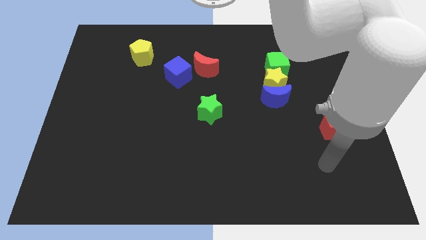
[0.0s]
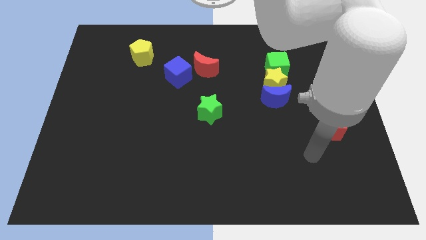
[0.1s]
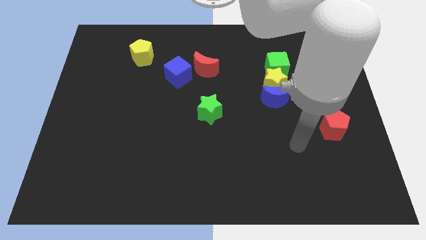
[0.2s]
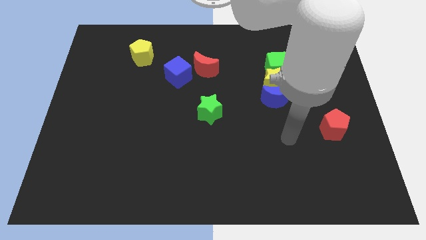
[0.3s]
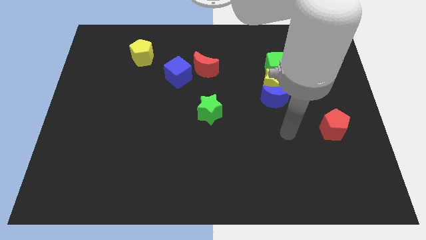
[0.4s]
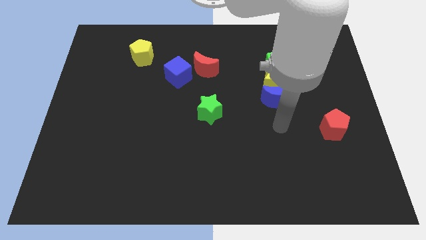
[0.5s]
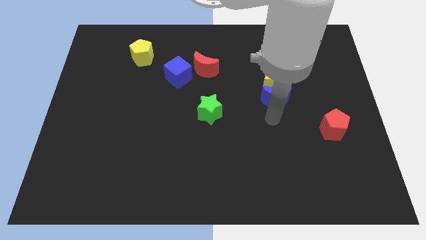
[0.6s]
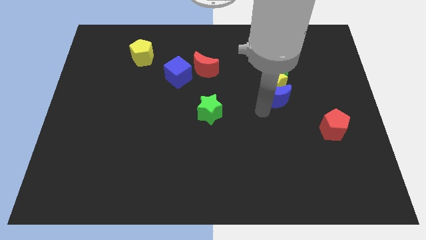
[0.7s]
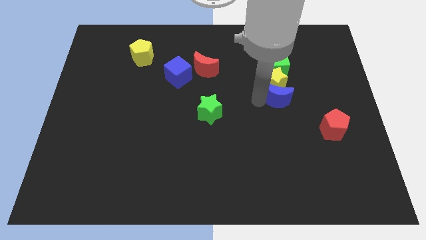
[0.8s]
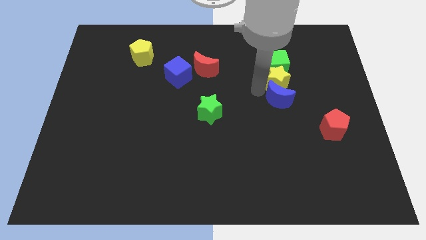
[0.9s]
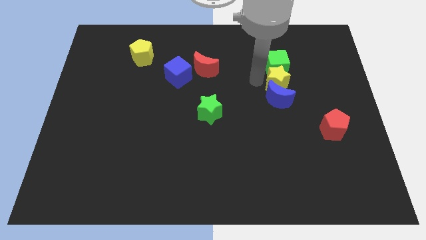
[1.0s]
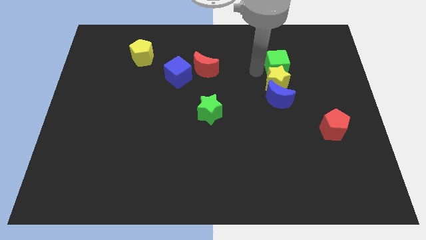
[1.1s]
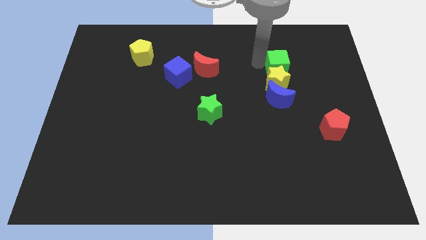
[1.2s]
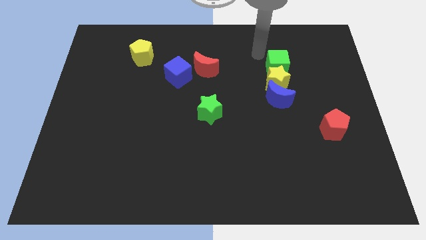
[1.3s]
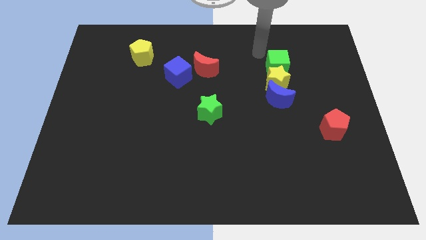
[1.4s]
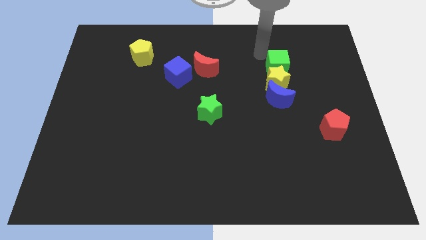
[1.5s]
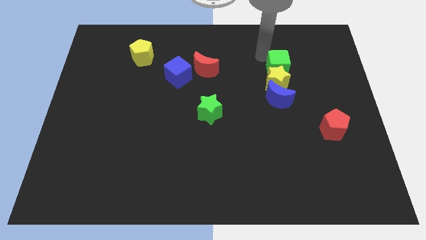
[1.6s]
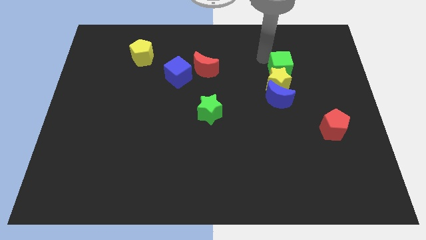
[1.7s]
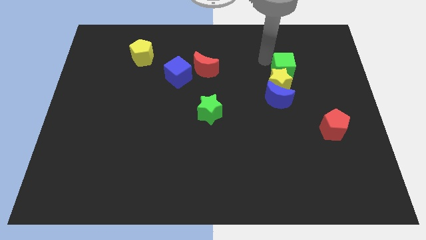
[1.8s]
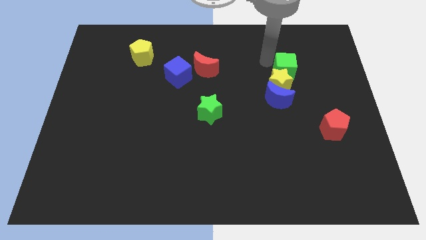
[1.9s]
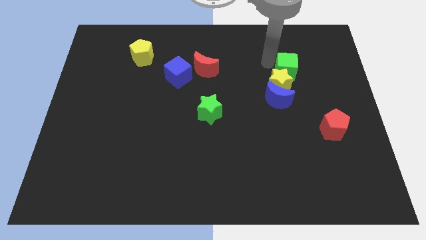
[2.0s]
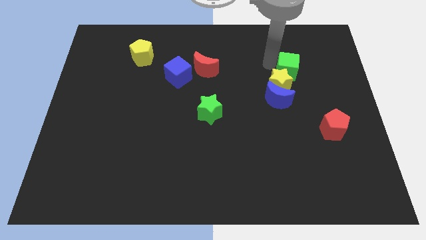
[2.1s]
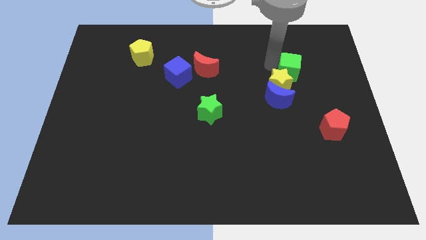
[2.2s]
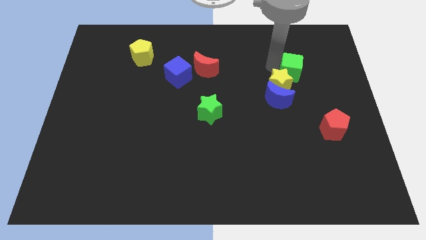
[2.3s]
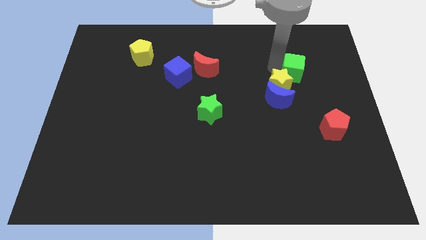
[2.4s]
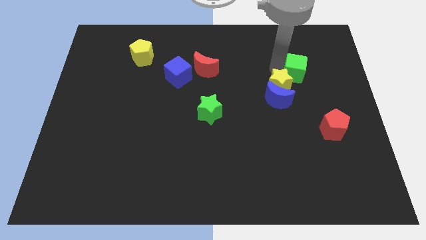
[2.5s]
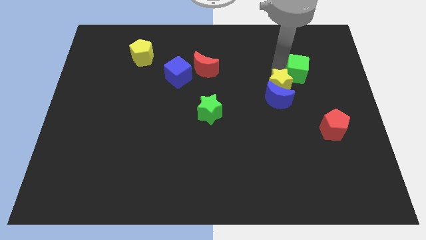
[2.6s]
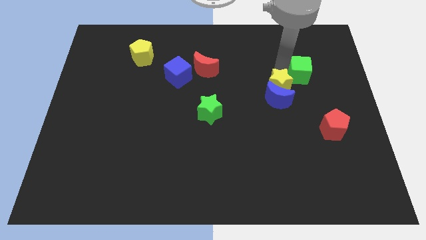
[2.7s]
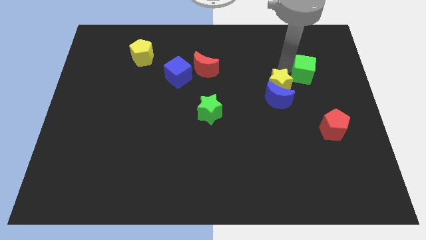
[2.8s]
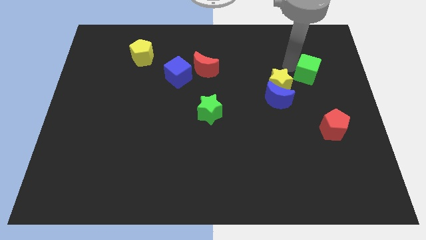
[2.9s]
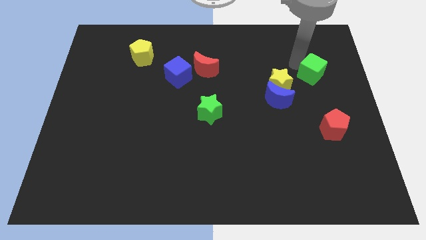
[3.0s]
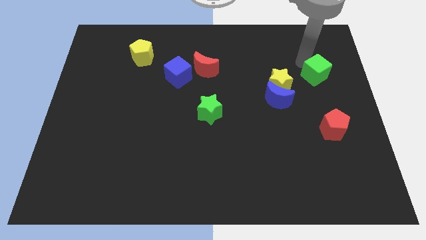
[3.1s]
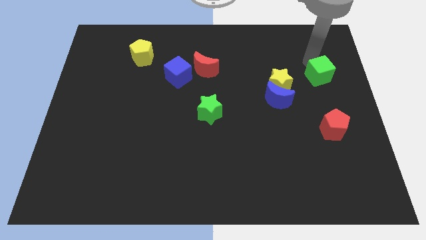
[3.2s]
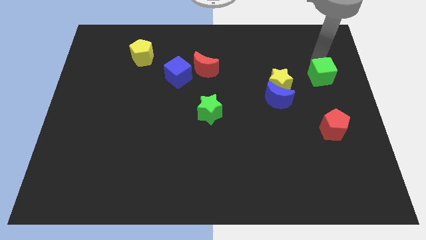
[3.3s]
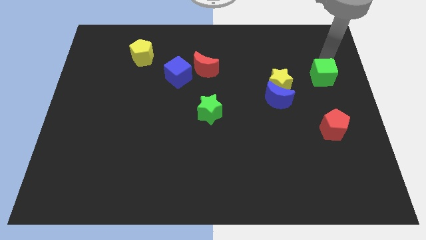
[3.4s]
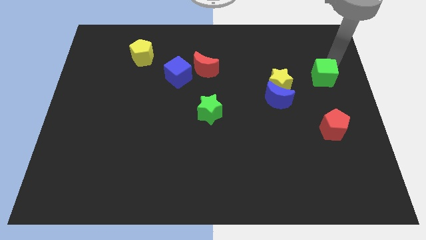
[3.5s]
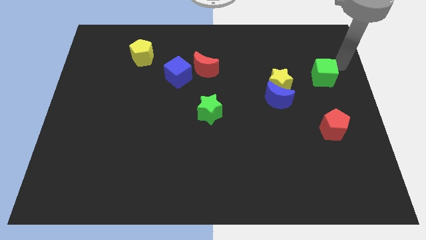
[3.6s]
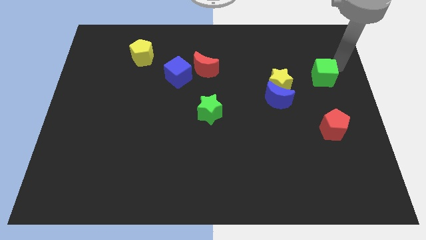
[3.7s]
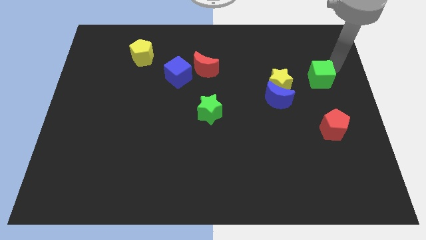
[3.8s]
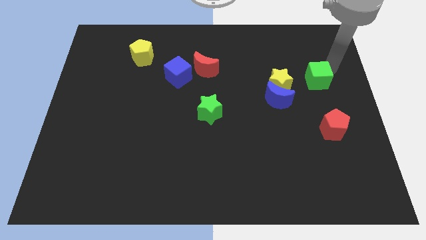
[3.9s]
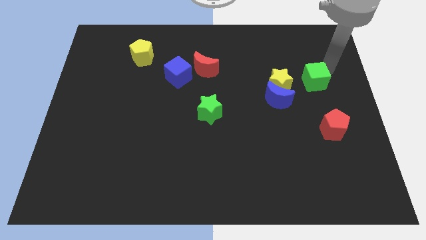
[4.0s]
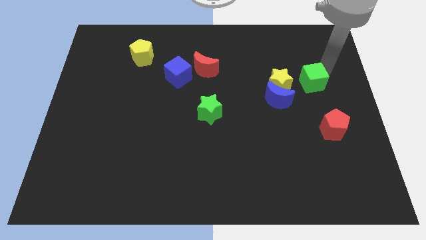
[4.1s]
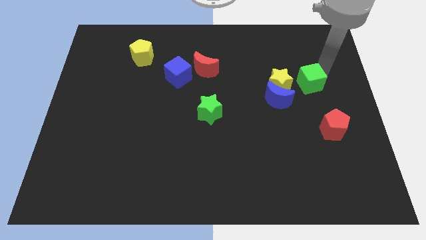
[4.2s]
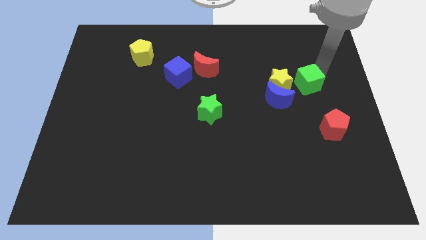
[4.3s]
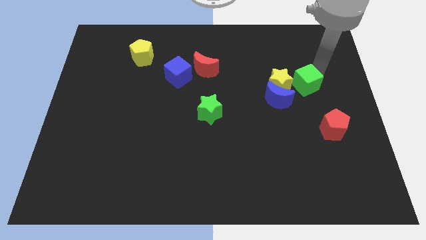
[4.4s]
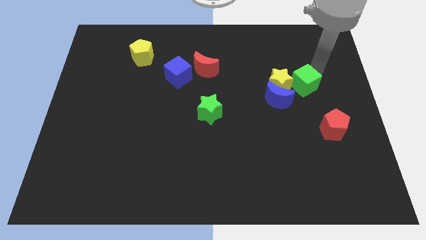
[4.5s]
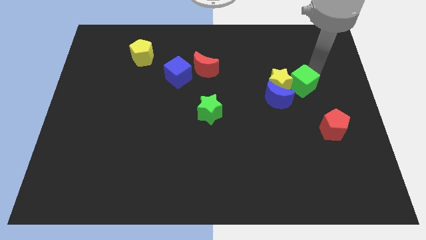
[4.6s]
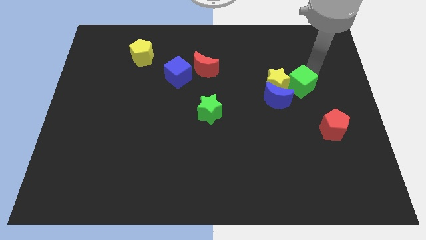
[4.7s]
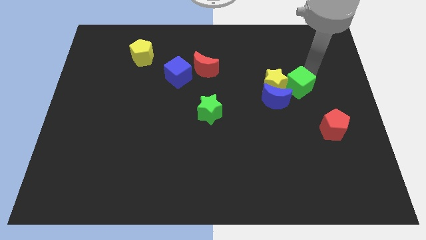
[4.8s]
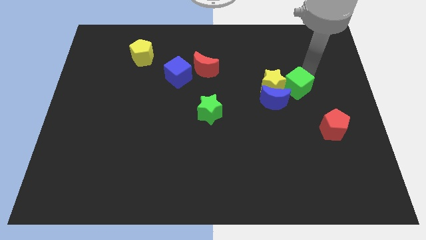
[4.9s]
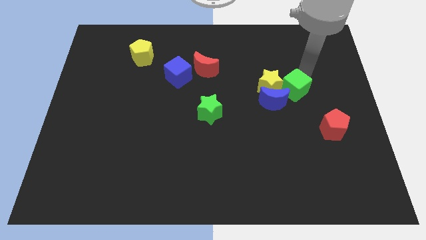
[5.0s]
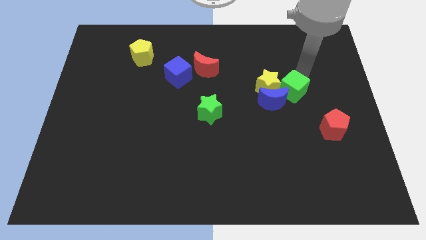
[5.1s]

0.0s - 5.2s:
push the green cube somewhat down

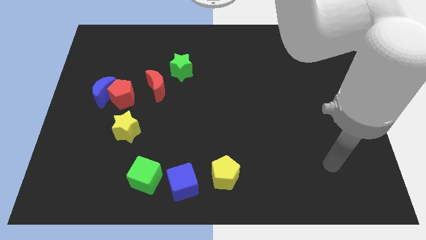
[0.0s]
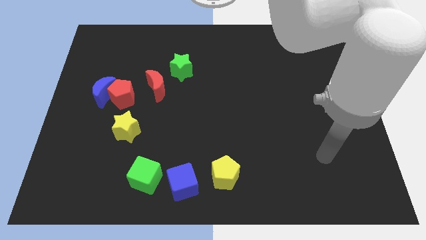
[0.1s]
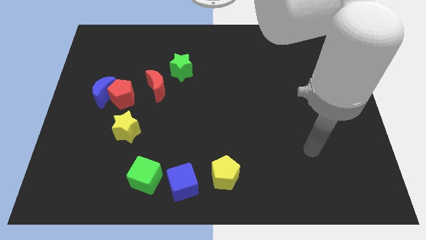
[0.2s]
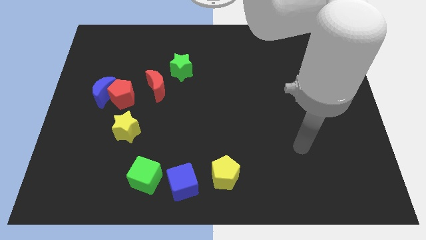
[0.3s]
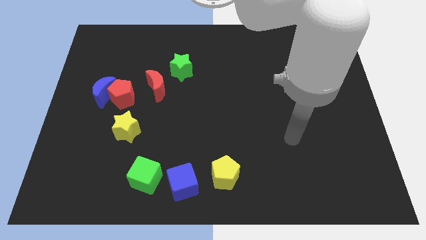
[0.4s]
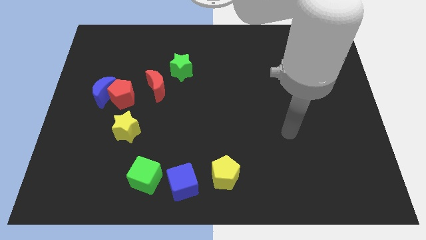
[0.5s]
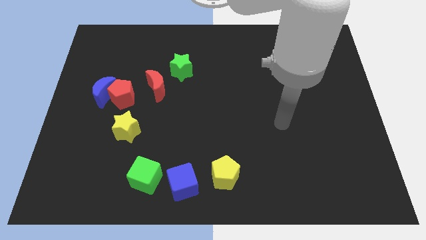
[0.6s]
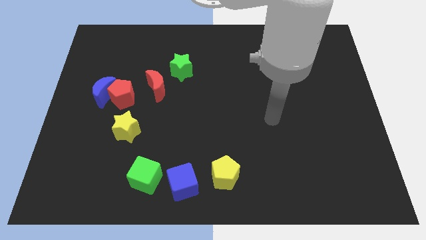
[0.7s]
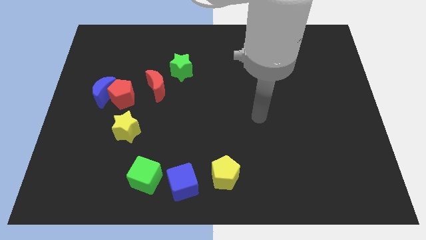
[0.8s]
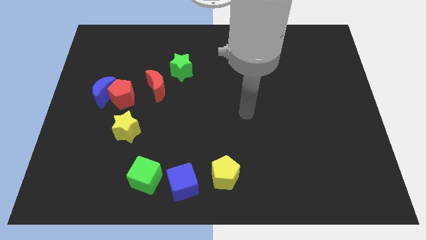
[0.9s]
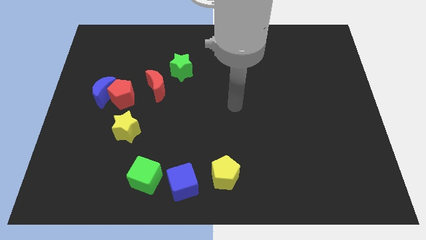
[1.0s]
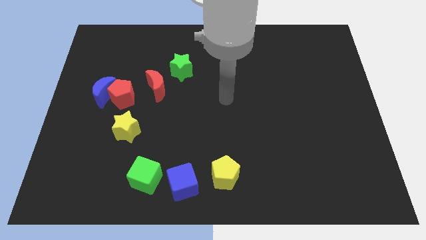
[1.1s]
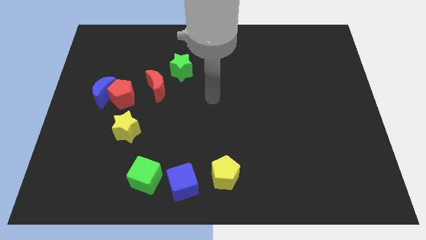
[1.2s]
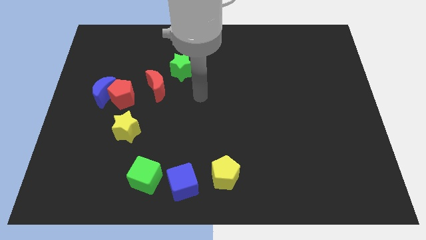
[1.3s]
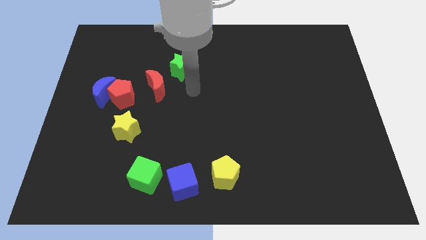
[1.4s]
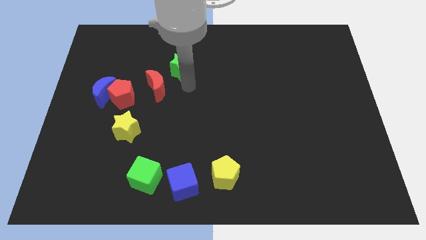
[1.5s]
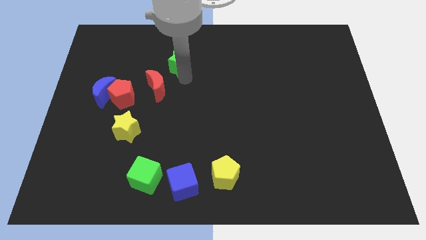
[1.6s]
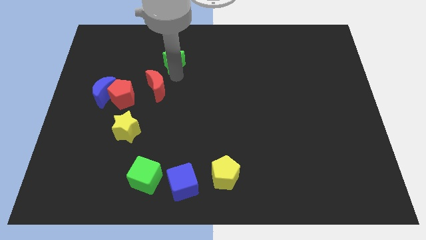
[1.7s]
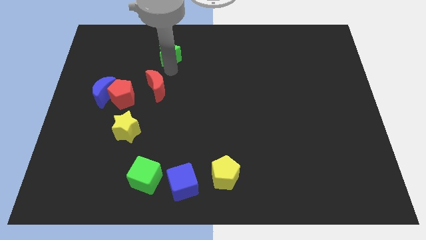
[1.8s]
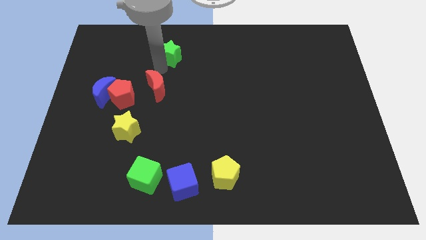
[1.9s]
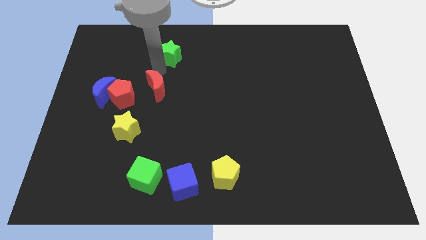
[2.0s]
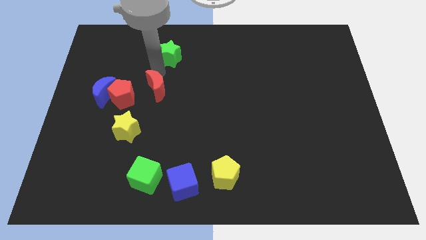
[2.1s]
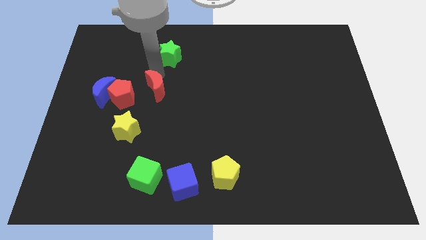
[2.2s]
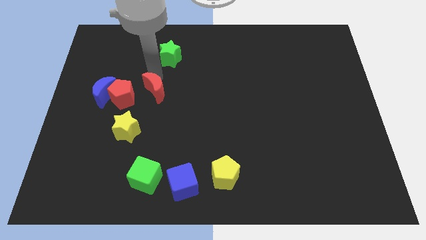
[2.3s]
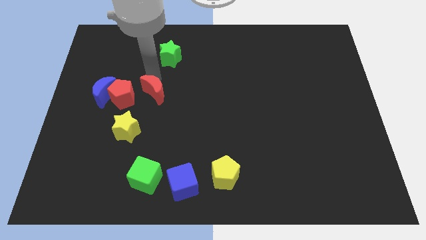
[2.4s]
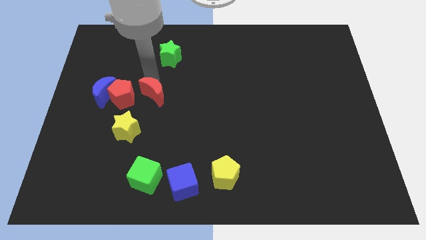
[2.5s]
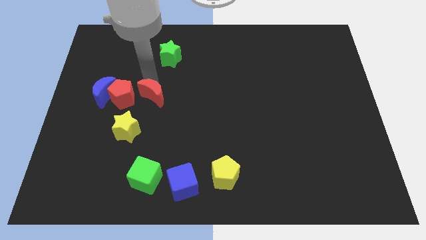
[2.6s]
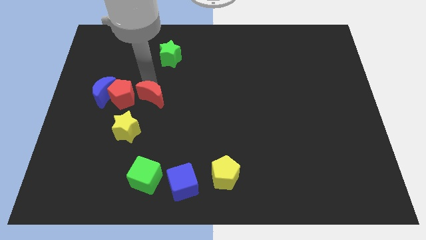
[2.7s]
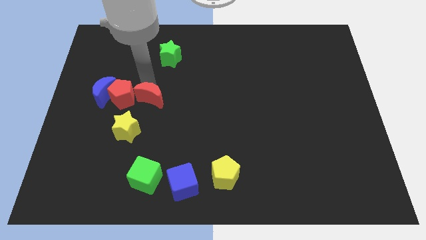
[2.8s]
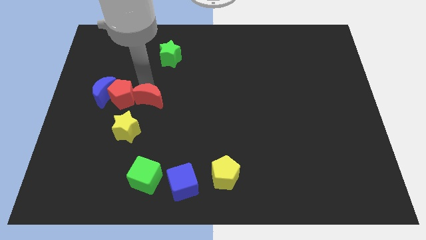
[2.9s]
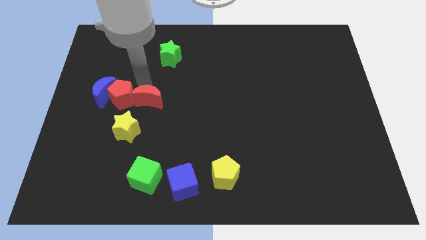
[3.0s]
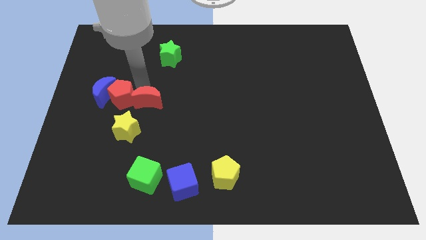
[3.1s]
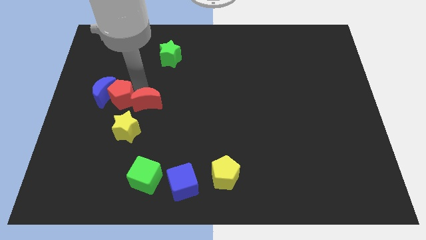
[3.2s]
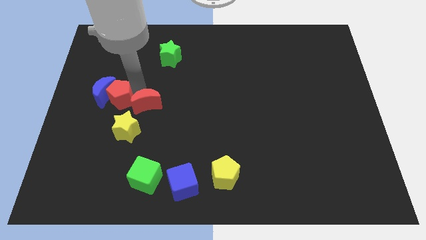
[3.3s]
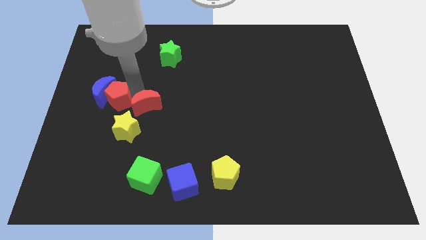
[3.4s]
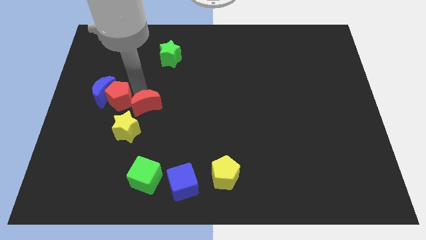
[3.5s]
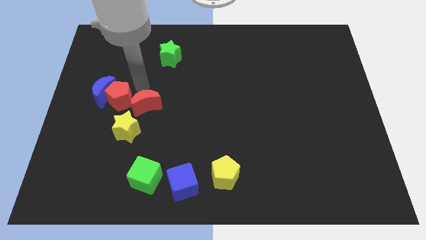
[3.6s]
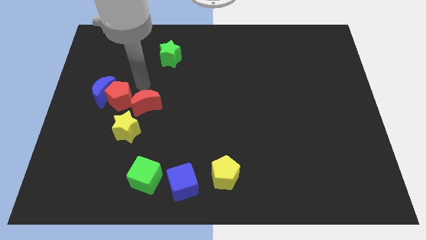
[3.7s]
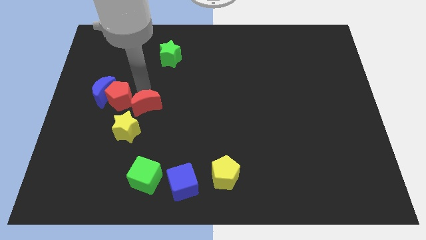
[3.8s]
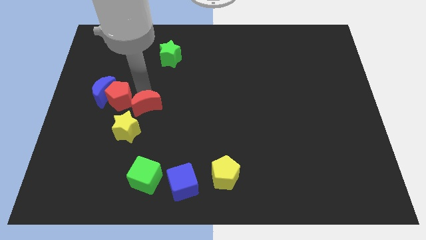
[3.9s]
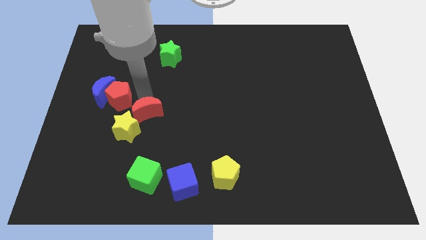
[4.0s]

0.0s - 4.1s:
slightly push the red moon downwards
